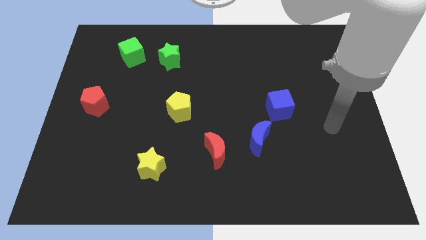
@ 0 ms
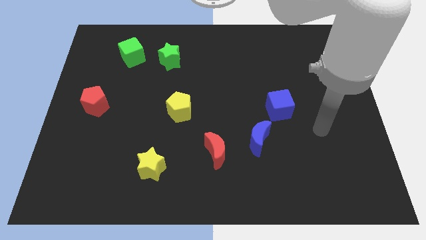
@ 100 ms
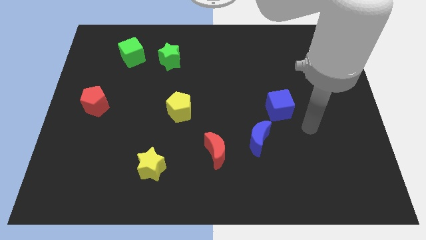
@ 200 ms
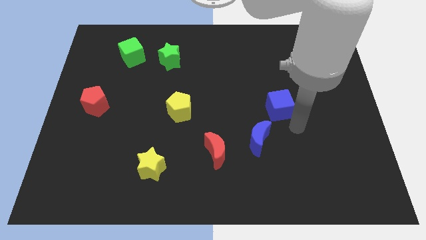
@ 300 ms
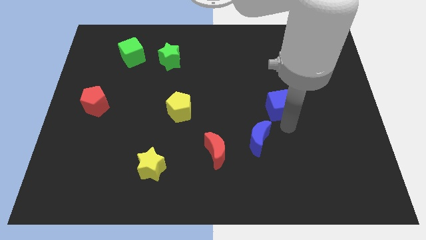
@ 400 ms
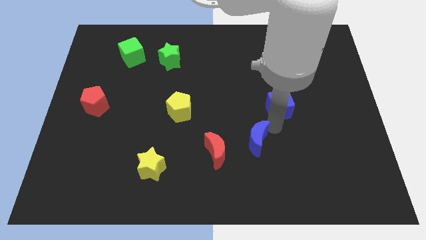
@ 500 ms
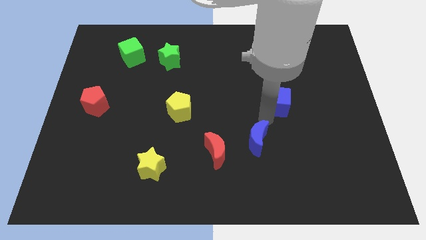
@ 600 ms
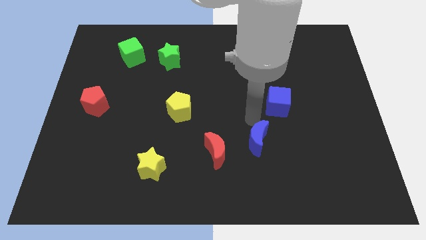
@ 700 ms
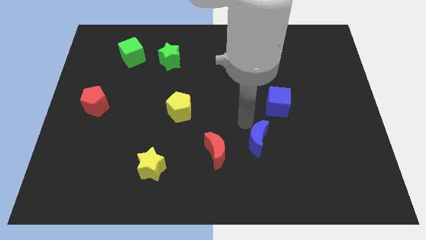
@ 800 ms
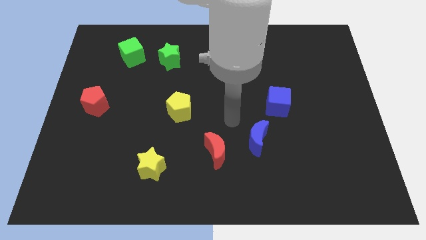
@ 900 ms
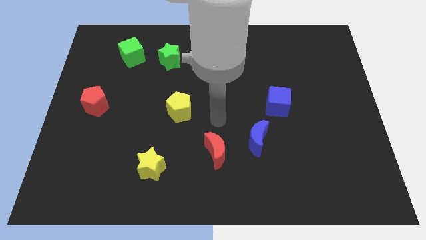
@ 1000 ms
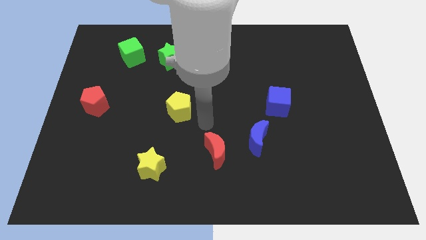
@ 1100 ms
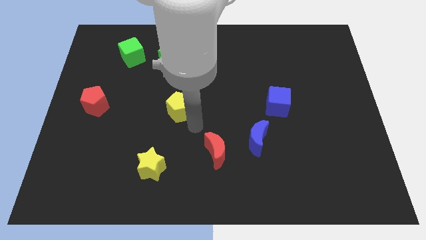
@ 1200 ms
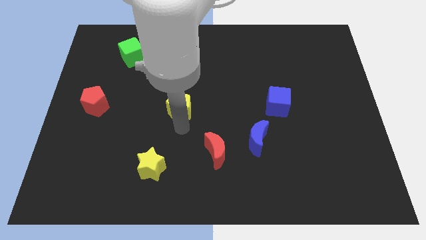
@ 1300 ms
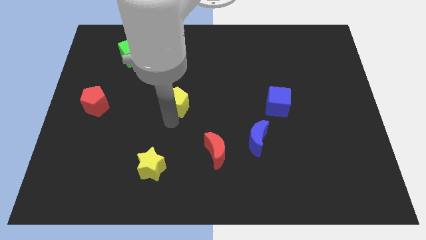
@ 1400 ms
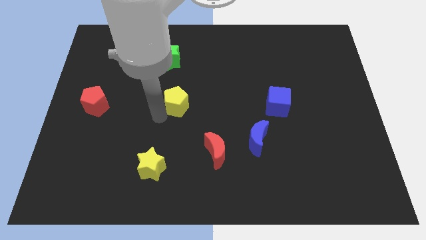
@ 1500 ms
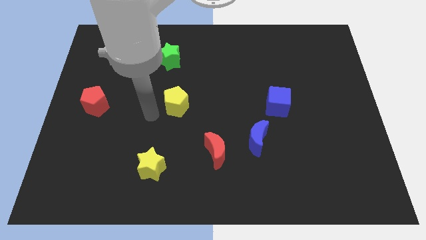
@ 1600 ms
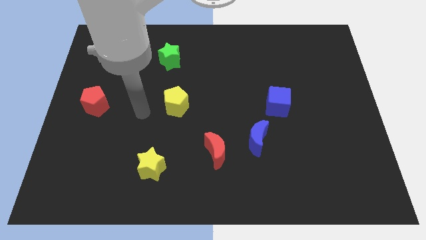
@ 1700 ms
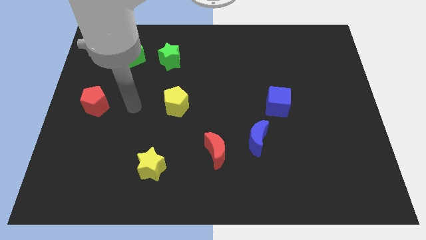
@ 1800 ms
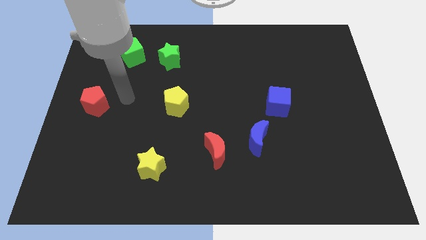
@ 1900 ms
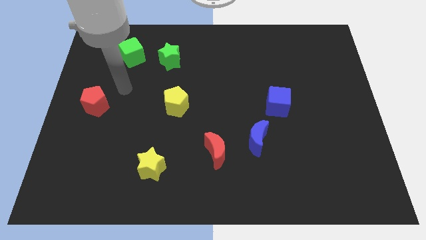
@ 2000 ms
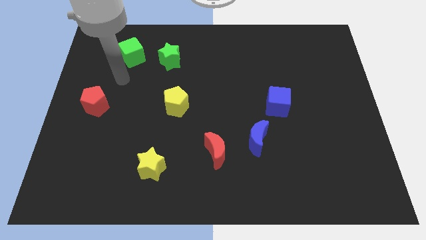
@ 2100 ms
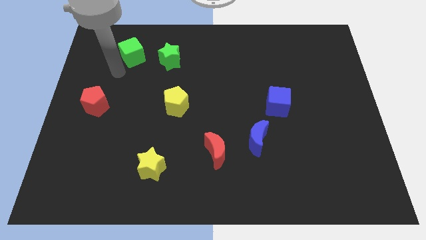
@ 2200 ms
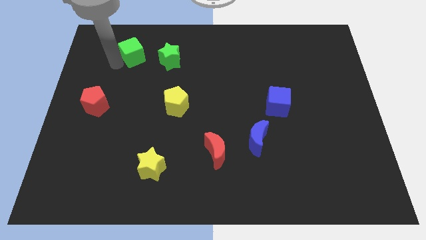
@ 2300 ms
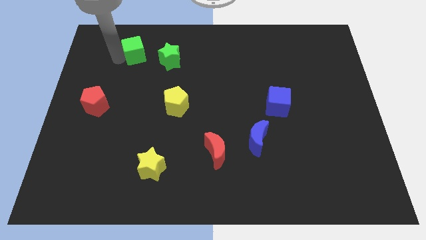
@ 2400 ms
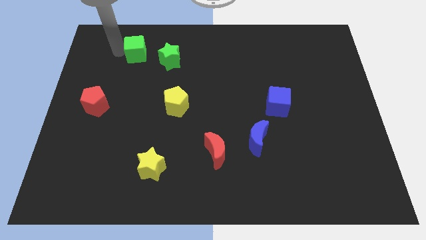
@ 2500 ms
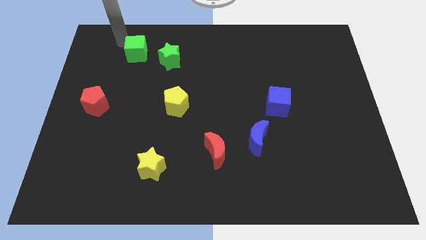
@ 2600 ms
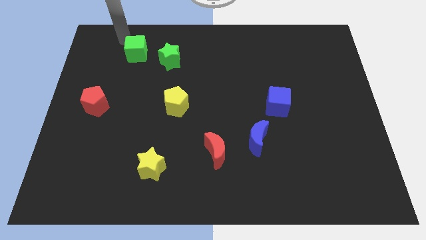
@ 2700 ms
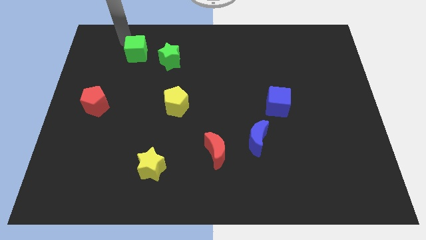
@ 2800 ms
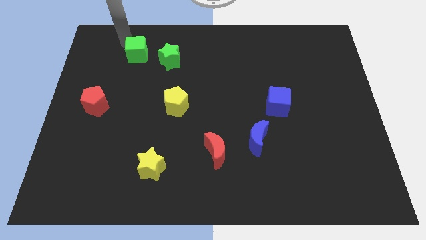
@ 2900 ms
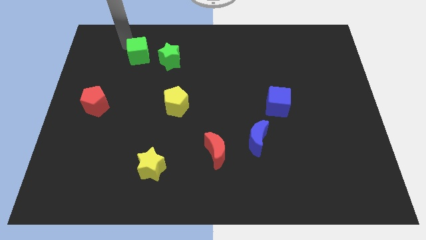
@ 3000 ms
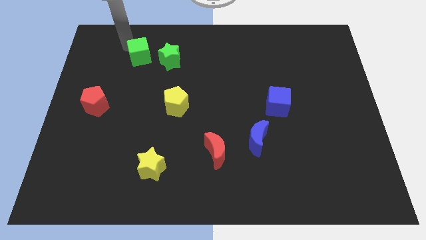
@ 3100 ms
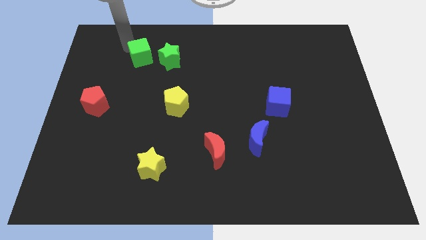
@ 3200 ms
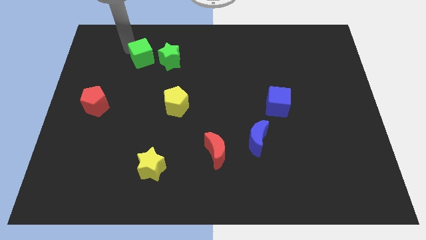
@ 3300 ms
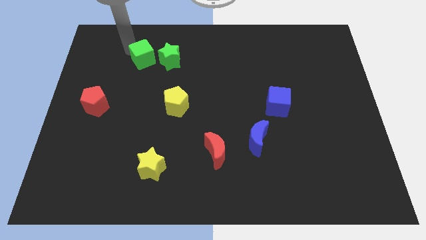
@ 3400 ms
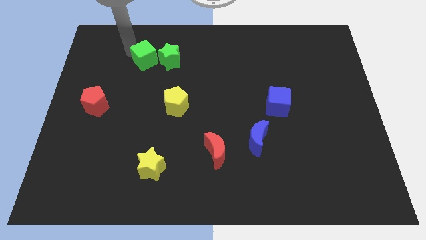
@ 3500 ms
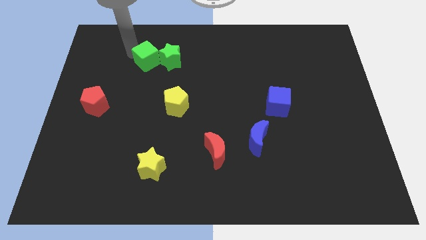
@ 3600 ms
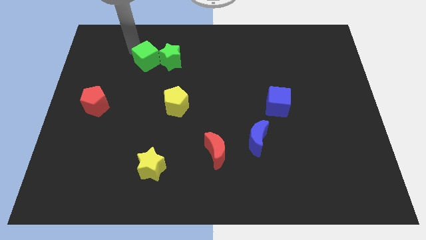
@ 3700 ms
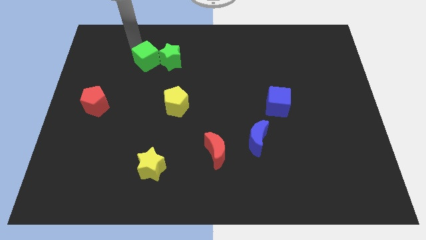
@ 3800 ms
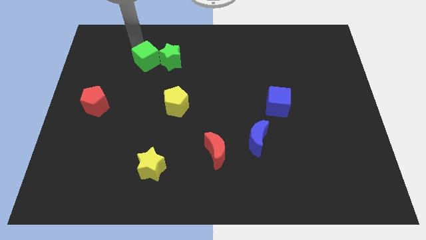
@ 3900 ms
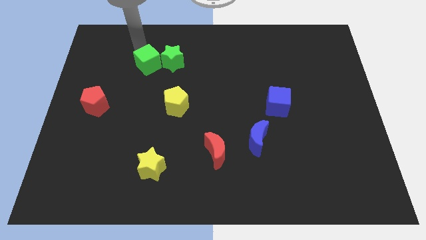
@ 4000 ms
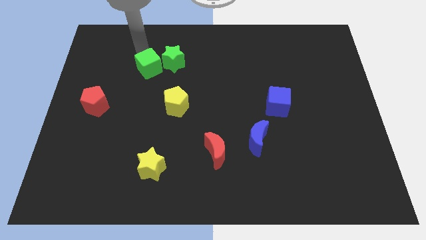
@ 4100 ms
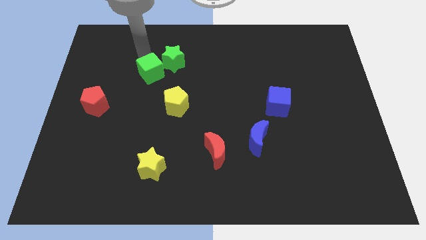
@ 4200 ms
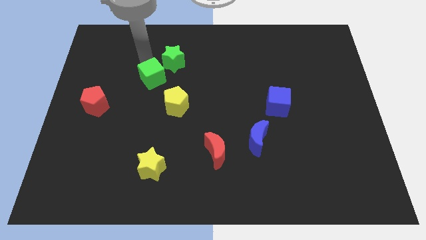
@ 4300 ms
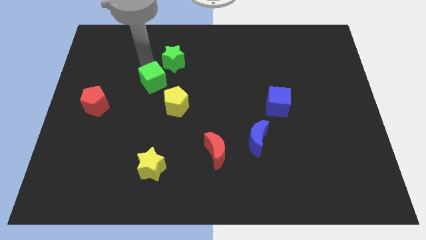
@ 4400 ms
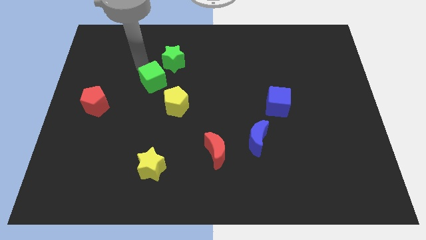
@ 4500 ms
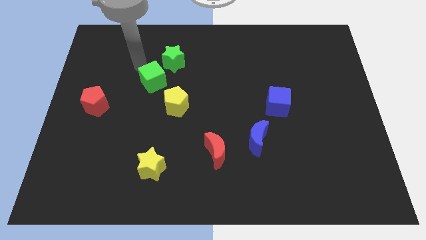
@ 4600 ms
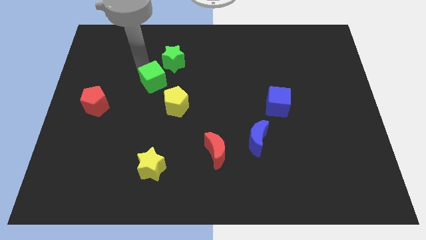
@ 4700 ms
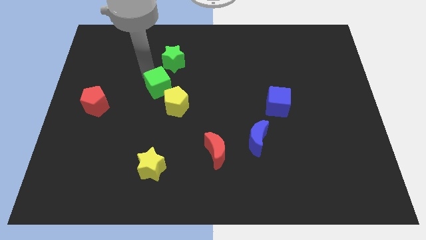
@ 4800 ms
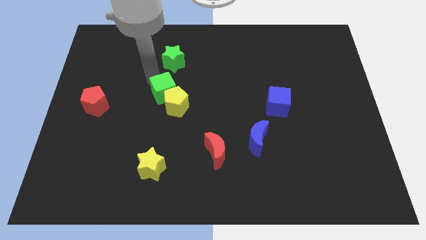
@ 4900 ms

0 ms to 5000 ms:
slide the green cube to the yellow pentagon

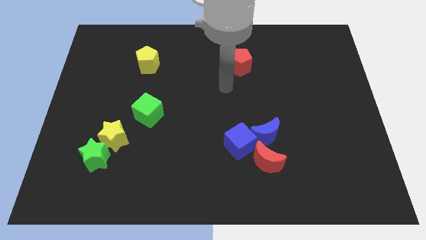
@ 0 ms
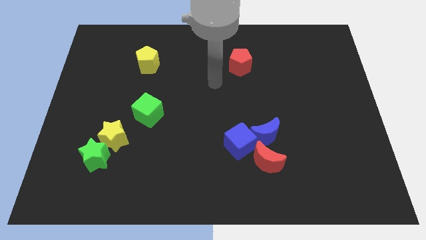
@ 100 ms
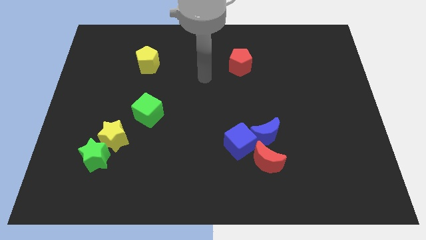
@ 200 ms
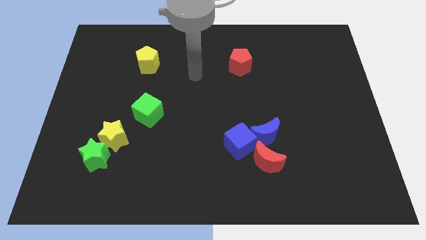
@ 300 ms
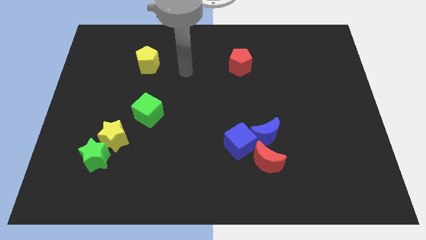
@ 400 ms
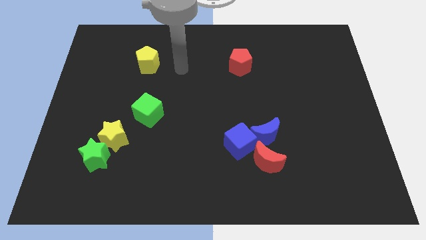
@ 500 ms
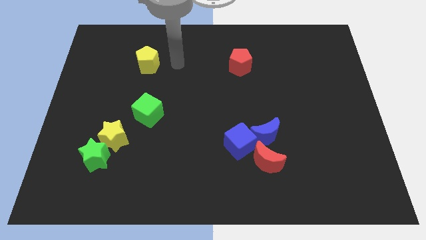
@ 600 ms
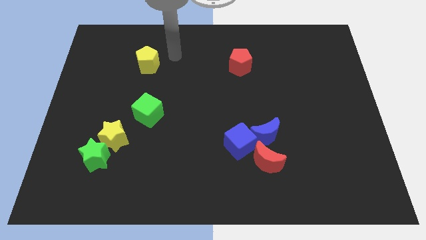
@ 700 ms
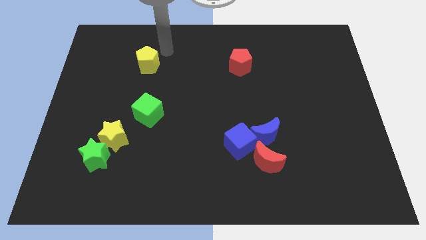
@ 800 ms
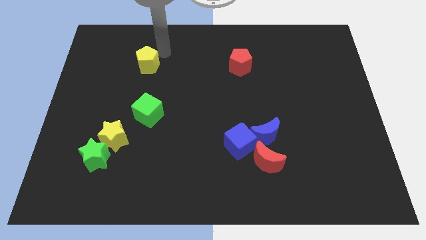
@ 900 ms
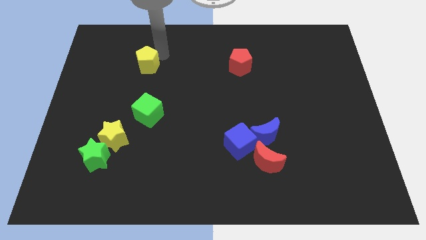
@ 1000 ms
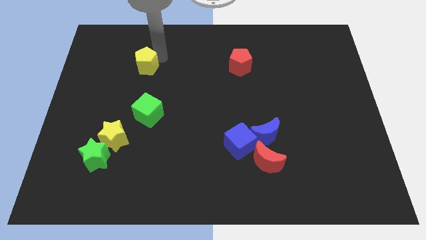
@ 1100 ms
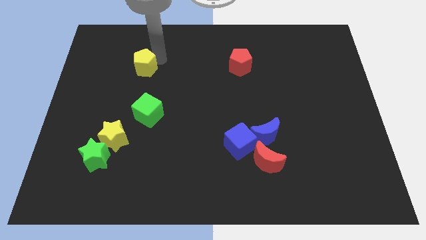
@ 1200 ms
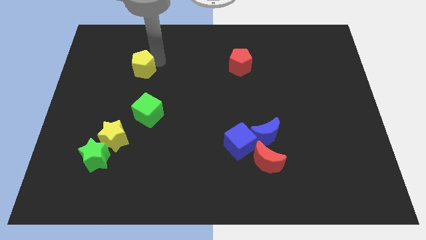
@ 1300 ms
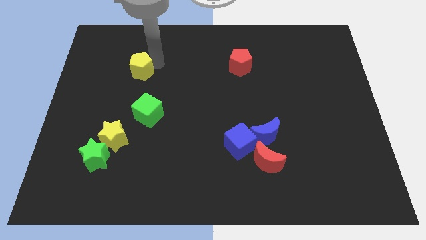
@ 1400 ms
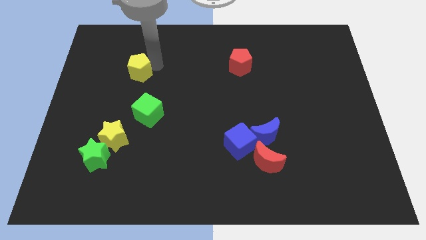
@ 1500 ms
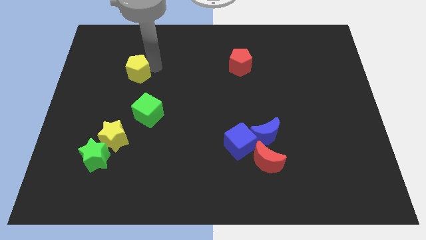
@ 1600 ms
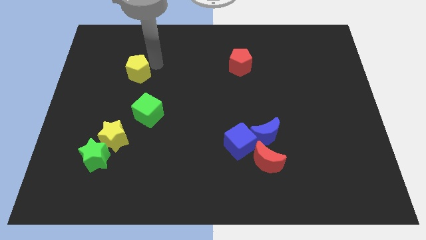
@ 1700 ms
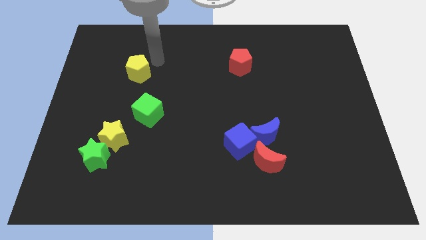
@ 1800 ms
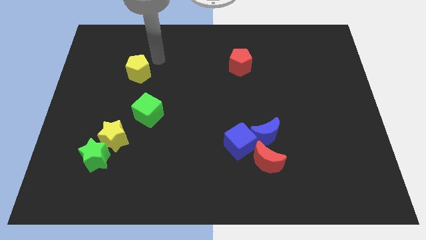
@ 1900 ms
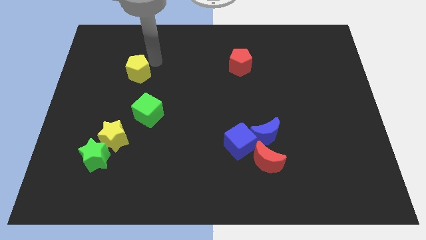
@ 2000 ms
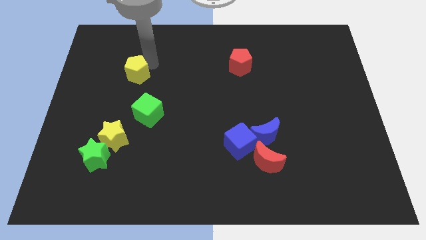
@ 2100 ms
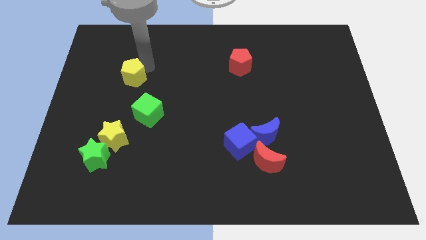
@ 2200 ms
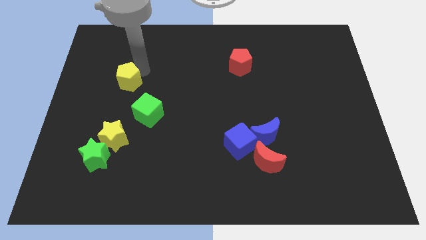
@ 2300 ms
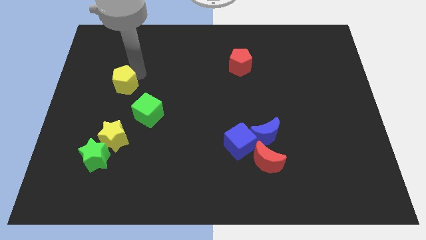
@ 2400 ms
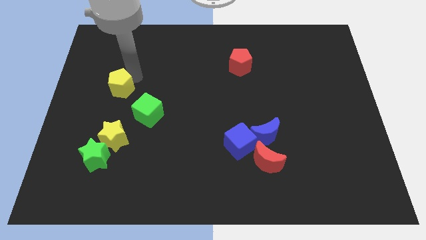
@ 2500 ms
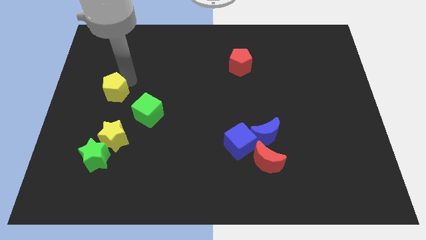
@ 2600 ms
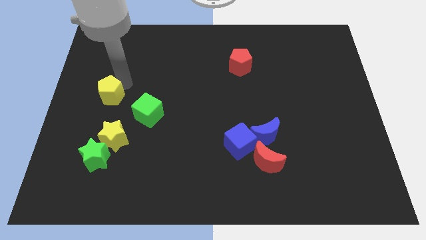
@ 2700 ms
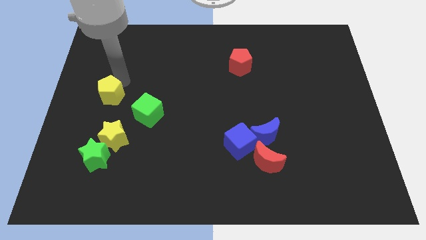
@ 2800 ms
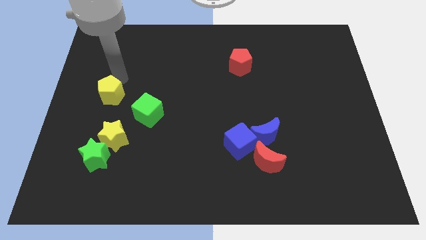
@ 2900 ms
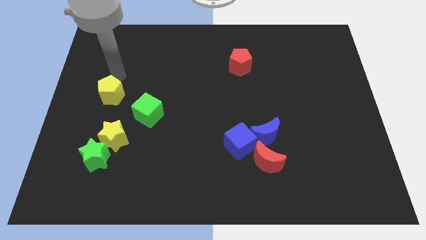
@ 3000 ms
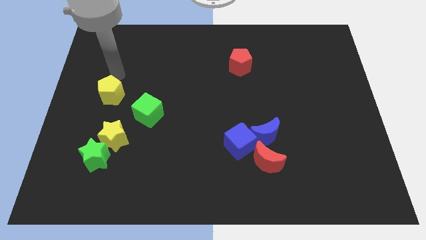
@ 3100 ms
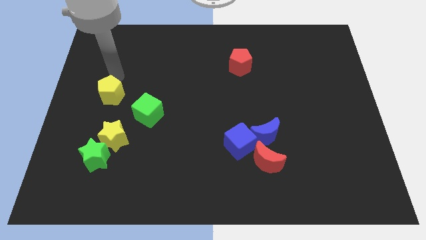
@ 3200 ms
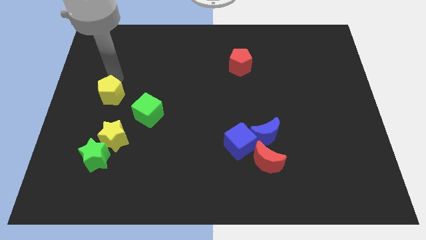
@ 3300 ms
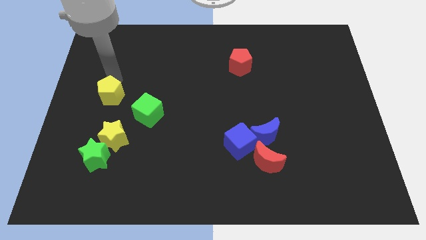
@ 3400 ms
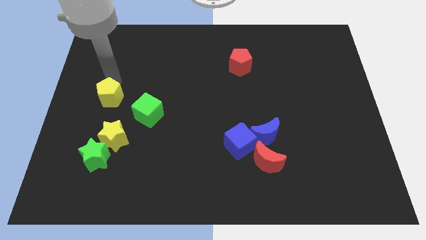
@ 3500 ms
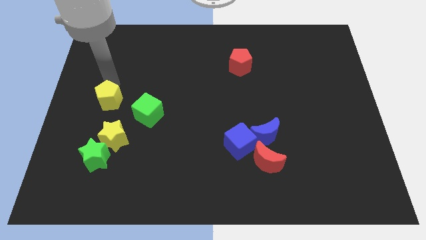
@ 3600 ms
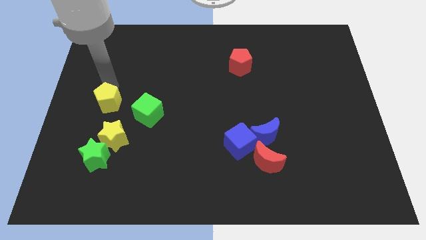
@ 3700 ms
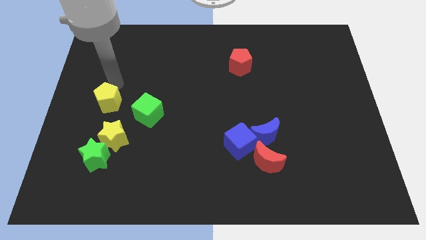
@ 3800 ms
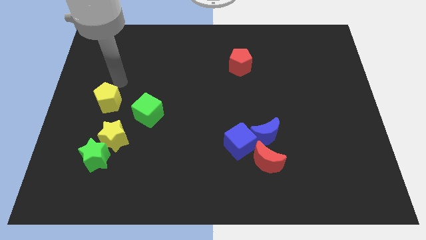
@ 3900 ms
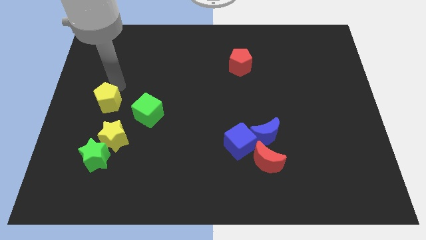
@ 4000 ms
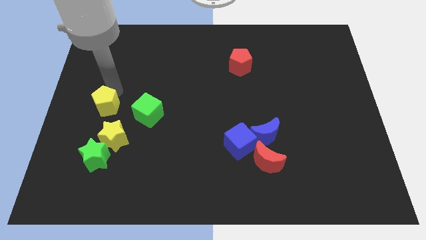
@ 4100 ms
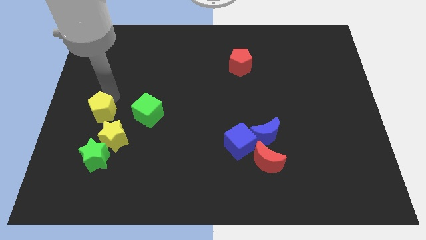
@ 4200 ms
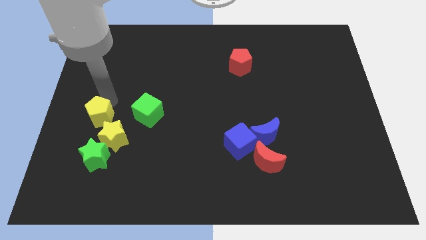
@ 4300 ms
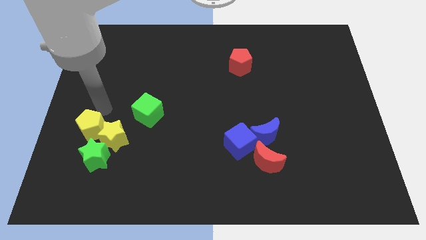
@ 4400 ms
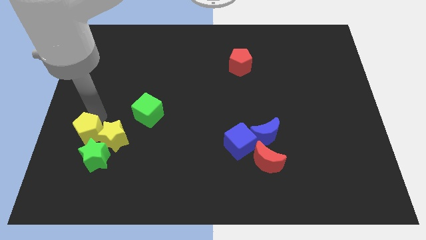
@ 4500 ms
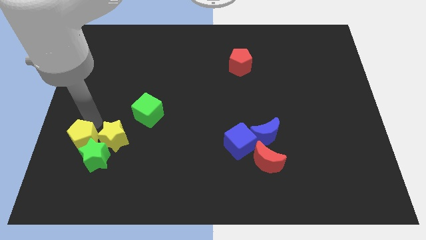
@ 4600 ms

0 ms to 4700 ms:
move the yellow pentagon close to the green star
